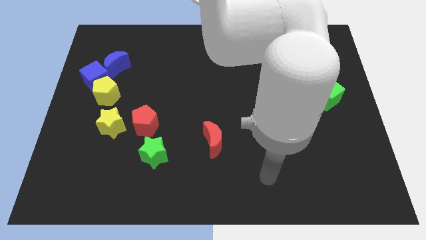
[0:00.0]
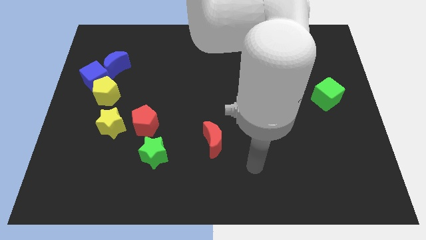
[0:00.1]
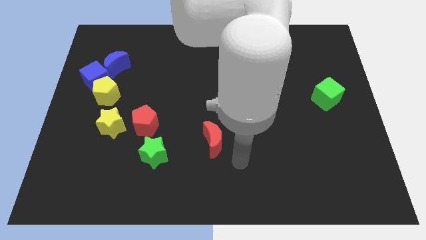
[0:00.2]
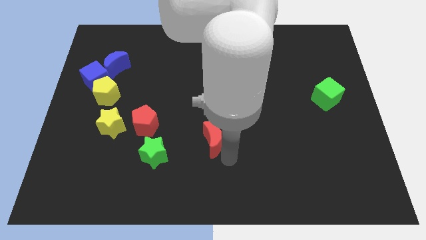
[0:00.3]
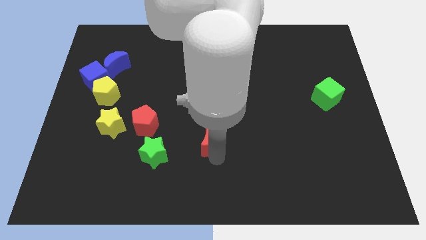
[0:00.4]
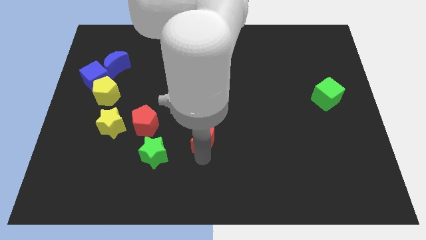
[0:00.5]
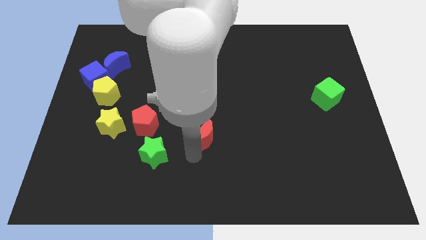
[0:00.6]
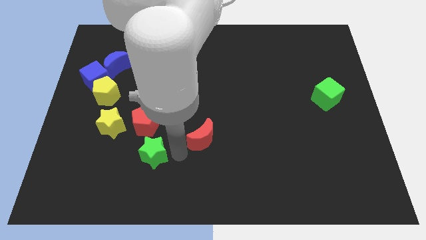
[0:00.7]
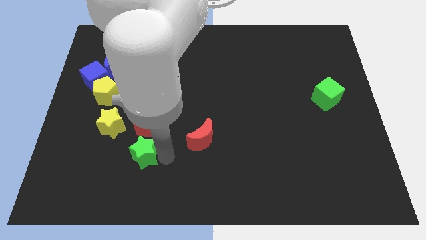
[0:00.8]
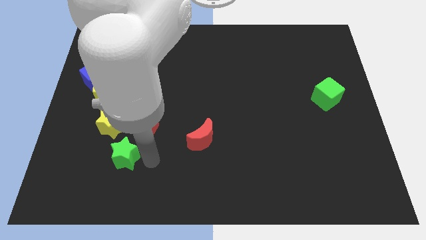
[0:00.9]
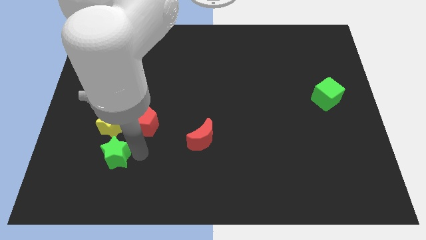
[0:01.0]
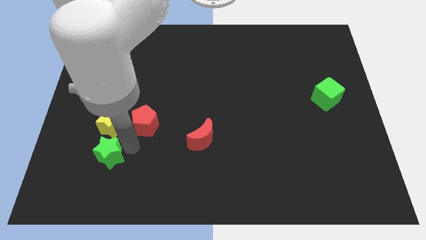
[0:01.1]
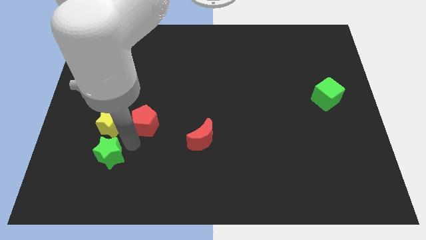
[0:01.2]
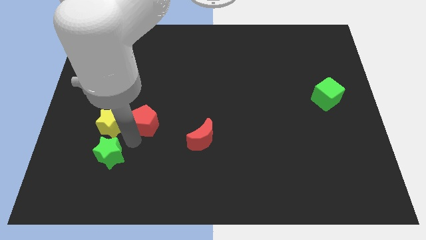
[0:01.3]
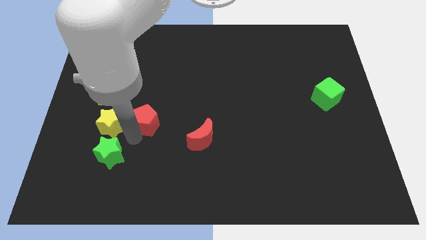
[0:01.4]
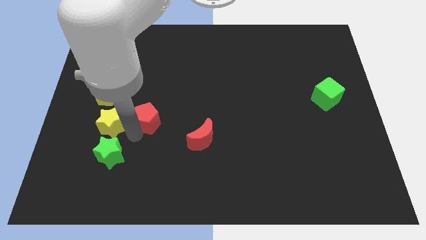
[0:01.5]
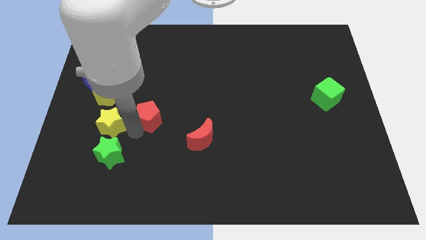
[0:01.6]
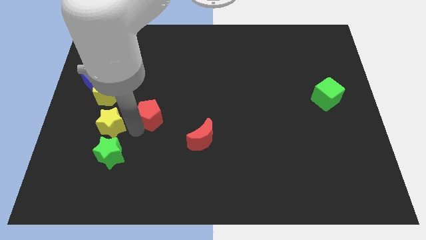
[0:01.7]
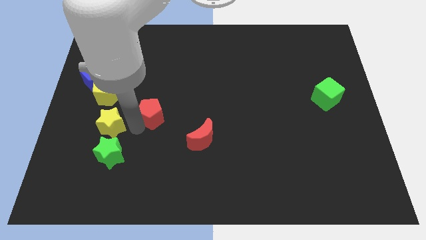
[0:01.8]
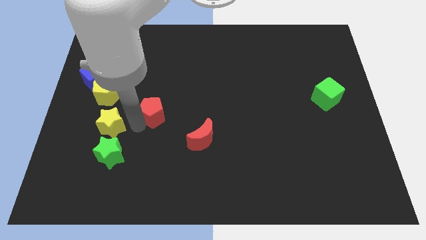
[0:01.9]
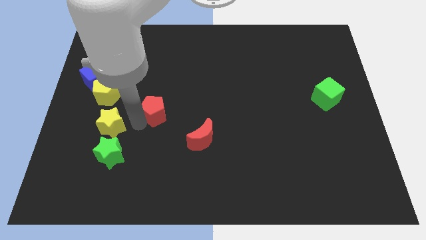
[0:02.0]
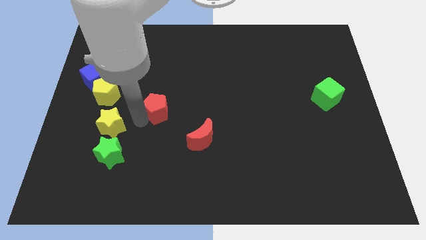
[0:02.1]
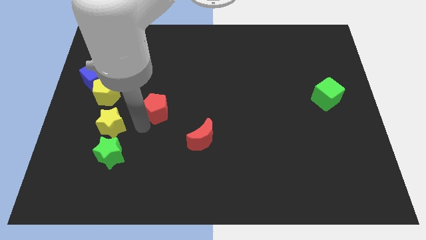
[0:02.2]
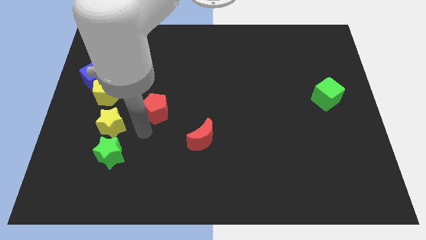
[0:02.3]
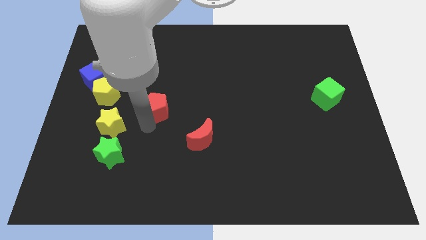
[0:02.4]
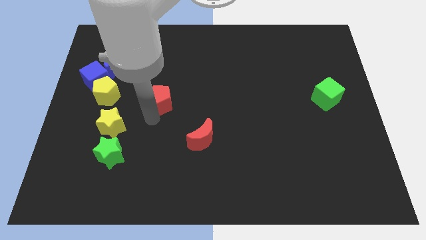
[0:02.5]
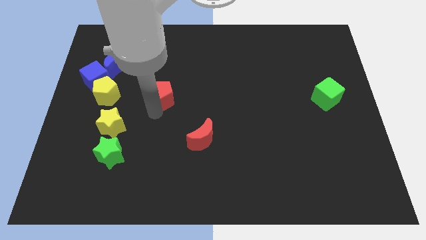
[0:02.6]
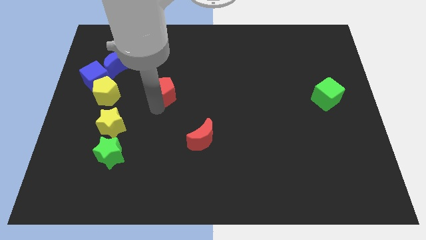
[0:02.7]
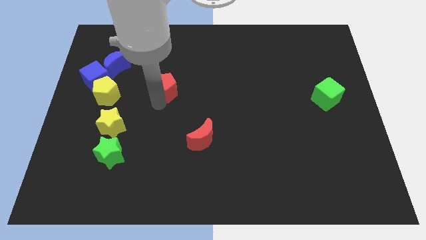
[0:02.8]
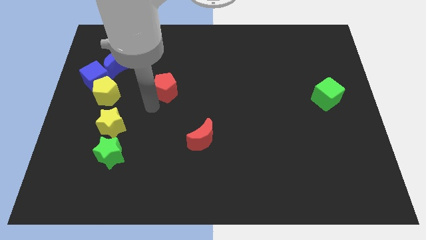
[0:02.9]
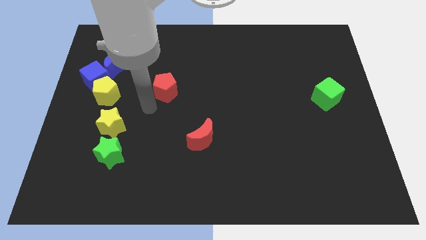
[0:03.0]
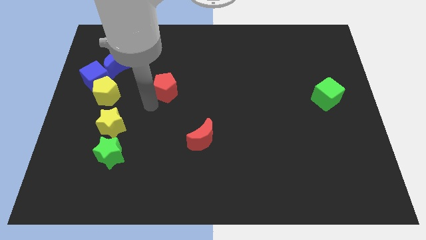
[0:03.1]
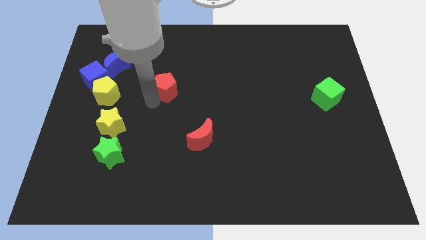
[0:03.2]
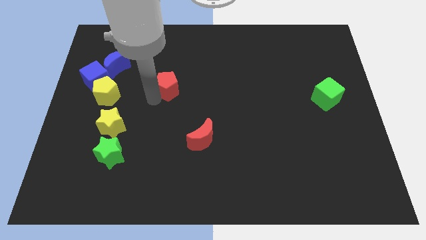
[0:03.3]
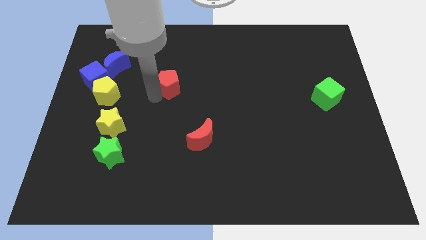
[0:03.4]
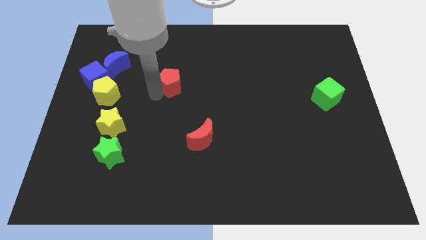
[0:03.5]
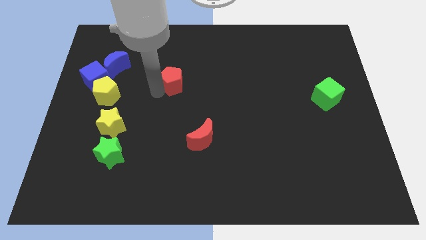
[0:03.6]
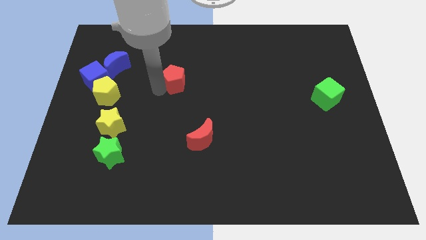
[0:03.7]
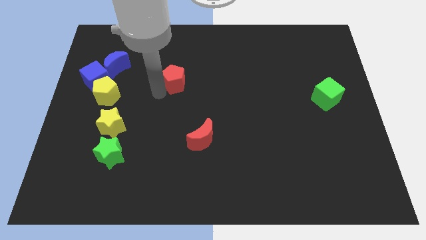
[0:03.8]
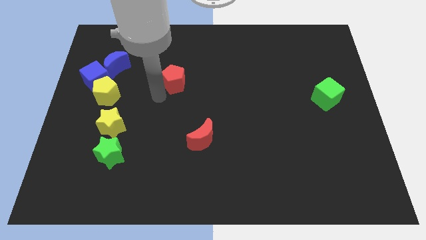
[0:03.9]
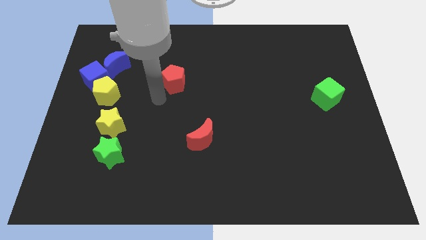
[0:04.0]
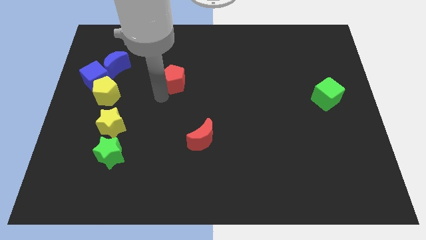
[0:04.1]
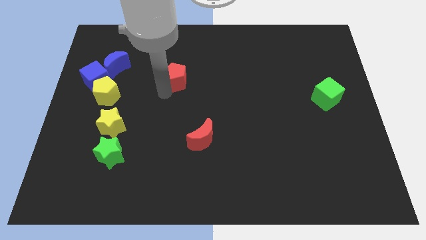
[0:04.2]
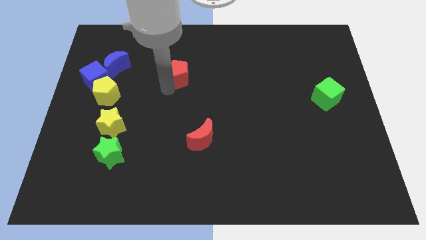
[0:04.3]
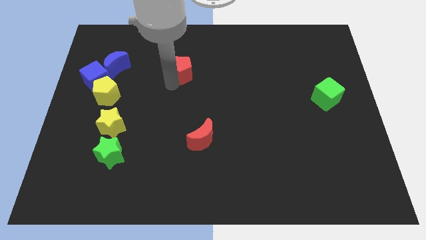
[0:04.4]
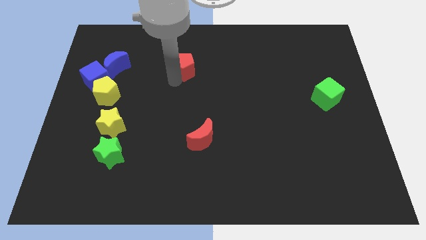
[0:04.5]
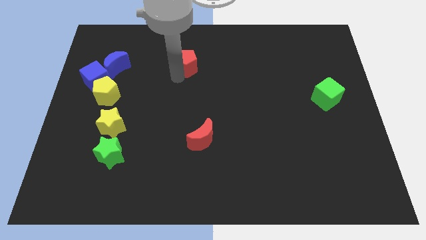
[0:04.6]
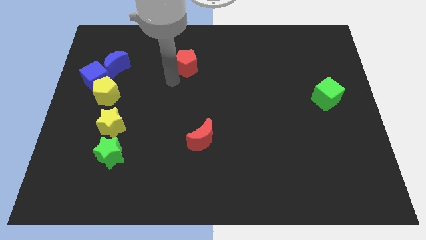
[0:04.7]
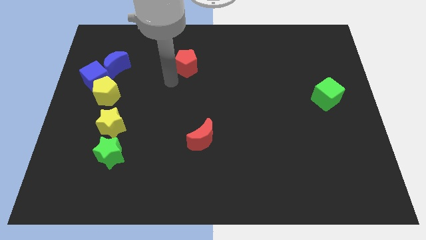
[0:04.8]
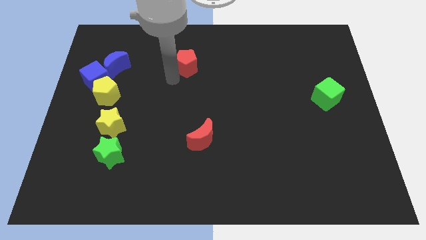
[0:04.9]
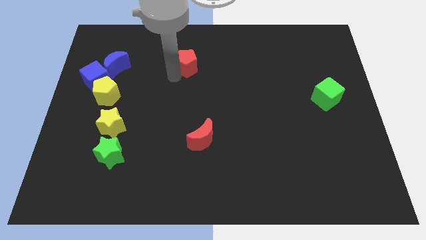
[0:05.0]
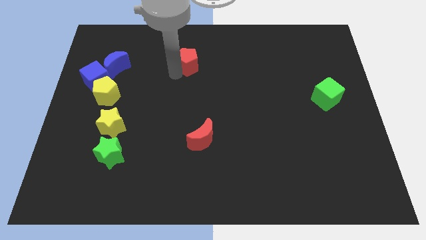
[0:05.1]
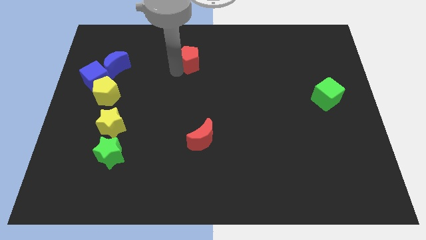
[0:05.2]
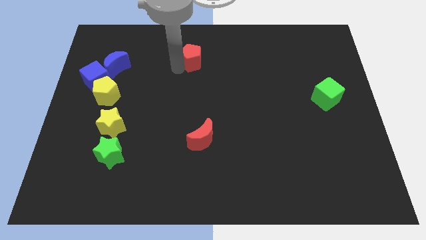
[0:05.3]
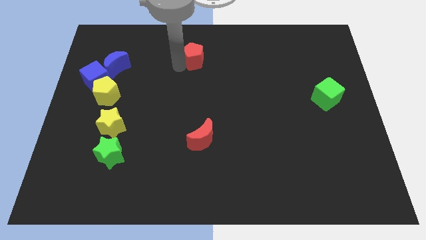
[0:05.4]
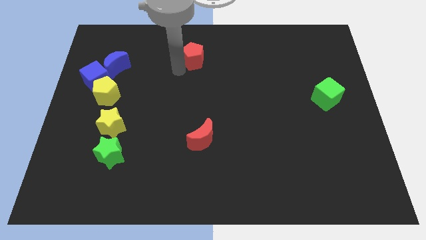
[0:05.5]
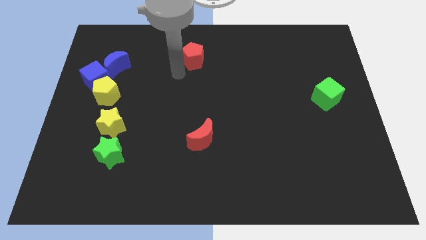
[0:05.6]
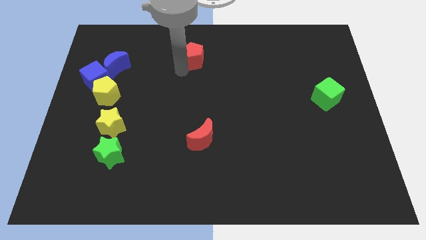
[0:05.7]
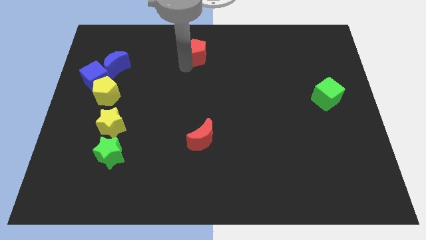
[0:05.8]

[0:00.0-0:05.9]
put the red pentagon to the top side
